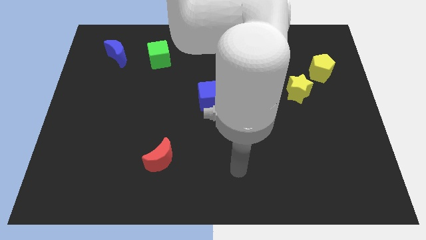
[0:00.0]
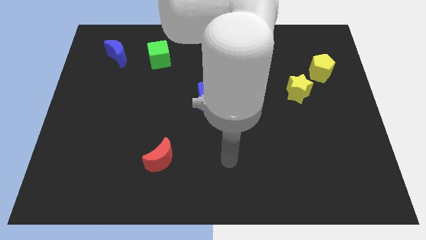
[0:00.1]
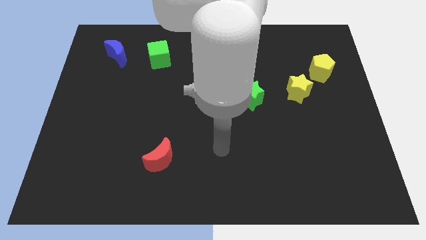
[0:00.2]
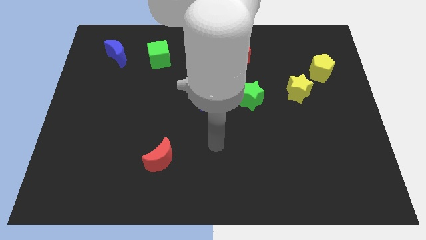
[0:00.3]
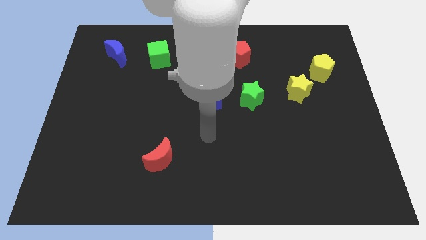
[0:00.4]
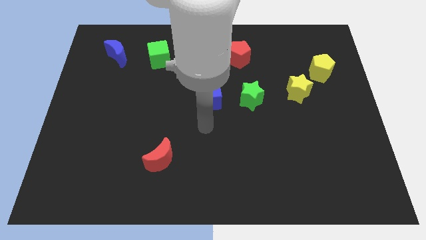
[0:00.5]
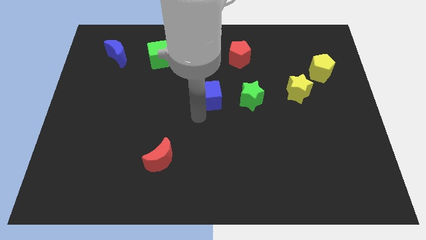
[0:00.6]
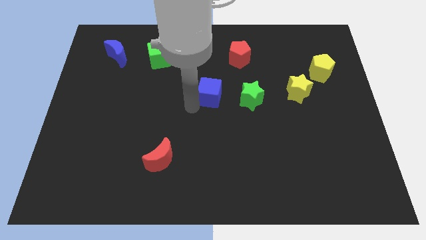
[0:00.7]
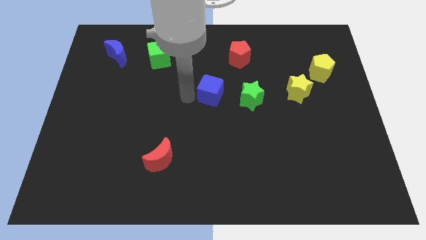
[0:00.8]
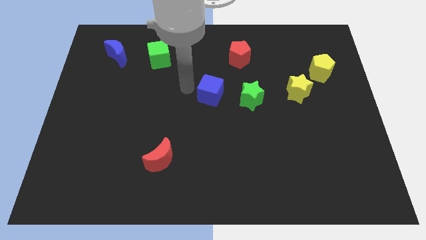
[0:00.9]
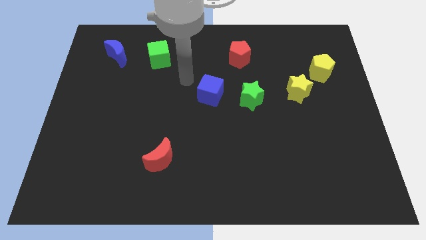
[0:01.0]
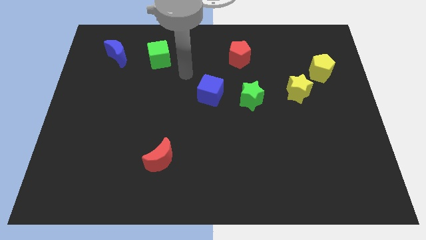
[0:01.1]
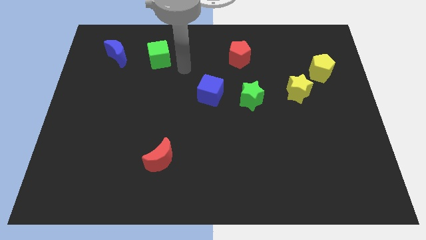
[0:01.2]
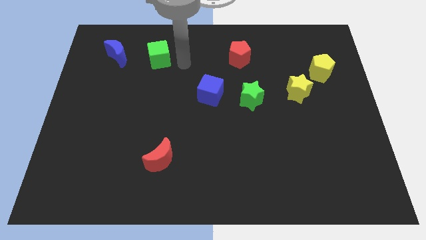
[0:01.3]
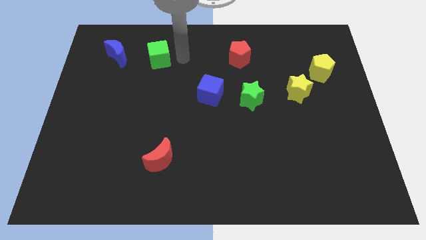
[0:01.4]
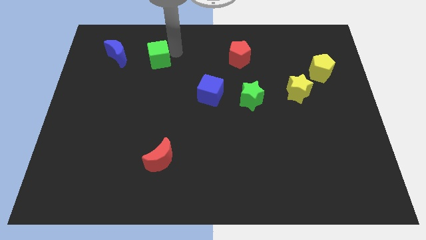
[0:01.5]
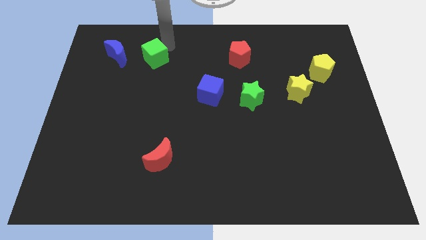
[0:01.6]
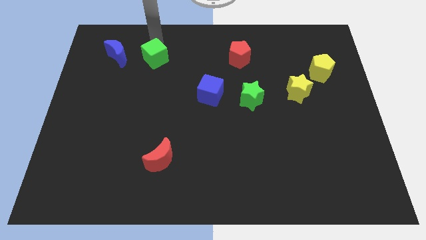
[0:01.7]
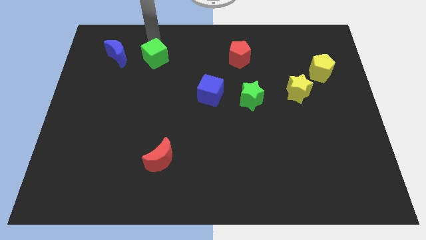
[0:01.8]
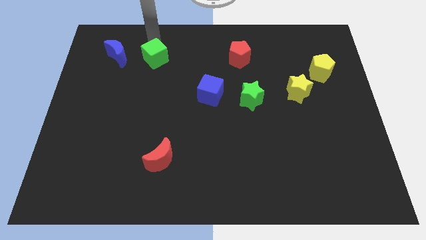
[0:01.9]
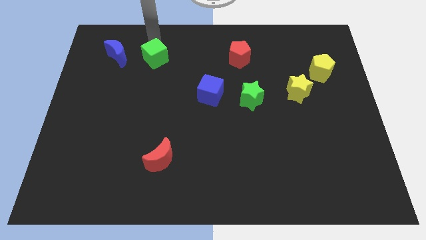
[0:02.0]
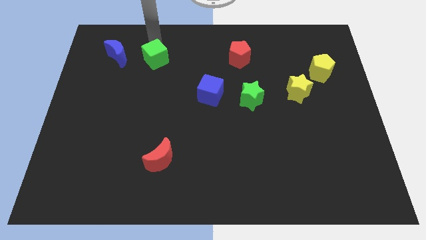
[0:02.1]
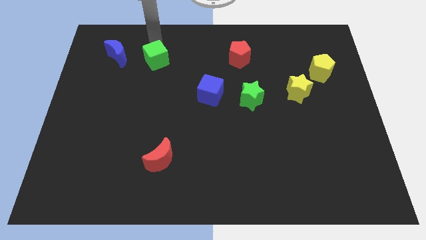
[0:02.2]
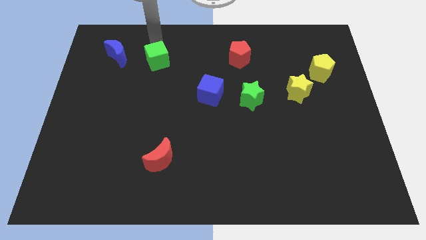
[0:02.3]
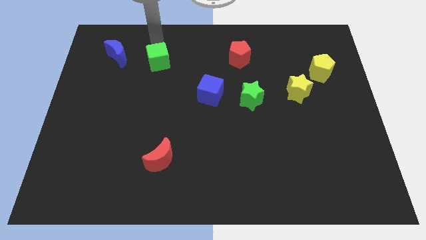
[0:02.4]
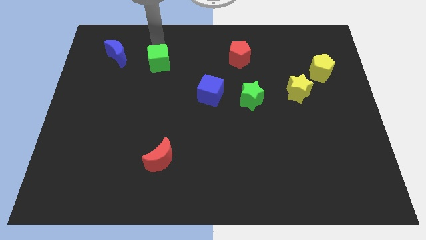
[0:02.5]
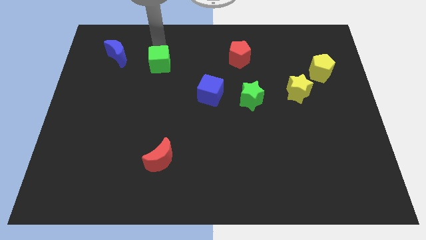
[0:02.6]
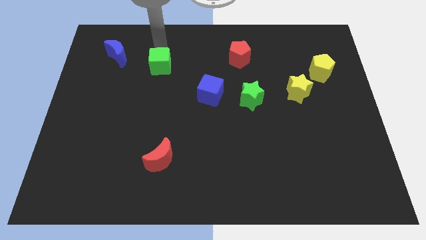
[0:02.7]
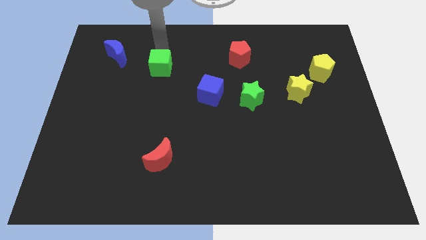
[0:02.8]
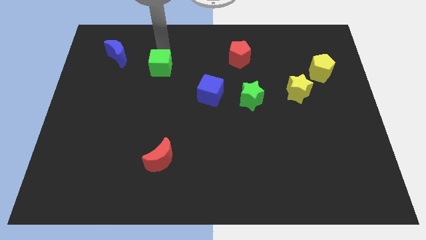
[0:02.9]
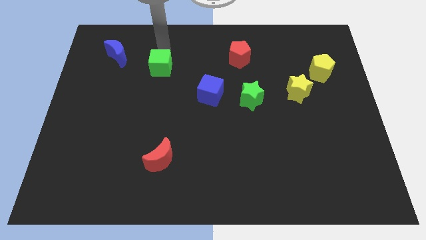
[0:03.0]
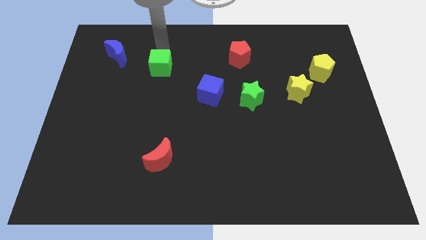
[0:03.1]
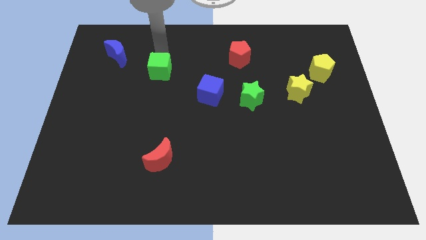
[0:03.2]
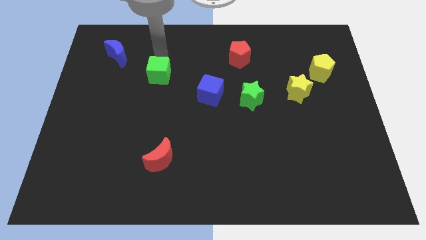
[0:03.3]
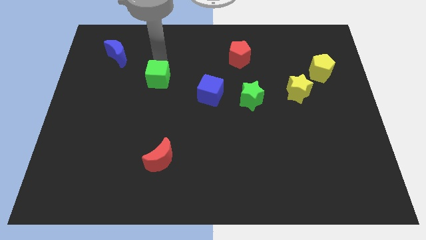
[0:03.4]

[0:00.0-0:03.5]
push the green cube a little bit downwards

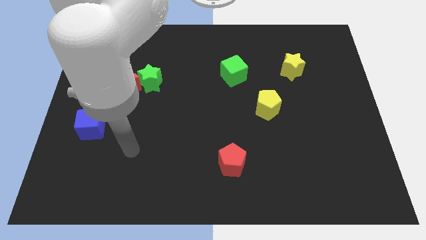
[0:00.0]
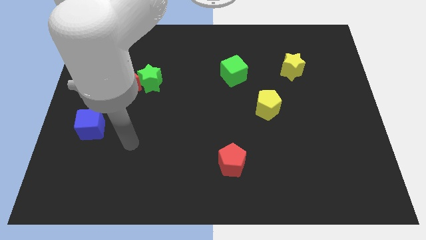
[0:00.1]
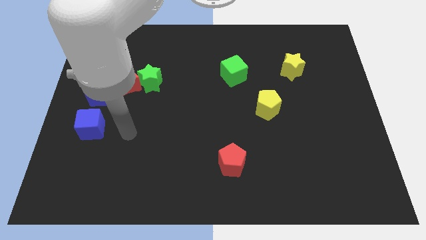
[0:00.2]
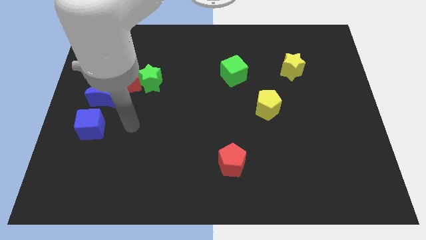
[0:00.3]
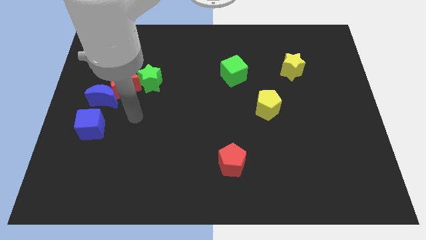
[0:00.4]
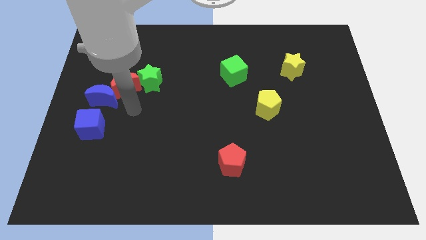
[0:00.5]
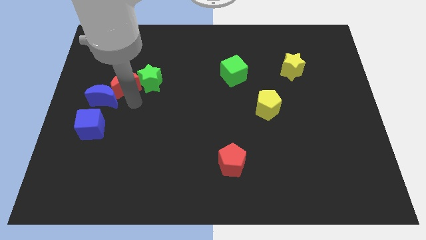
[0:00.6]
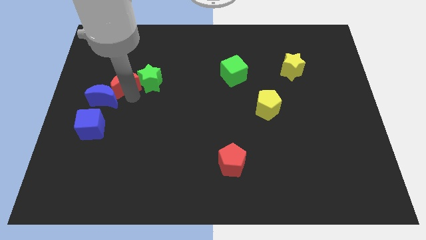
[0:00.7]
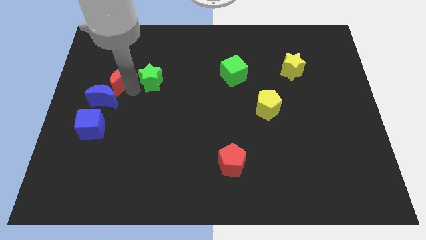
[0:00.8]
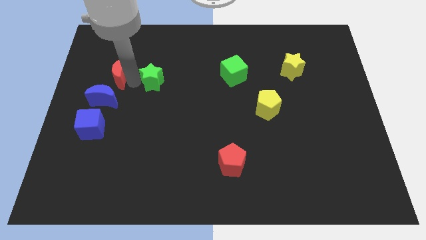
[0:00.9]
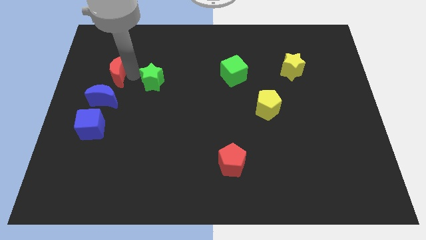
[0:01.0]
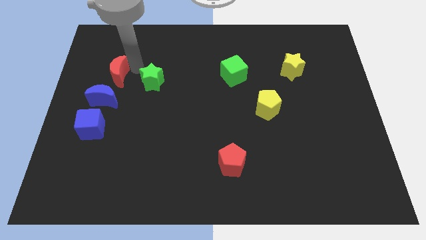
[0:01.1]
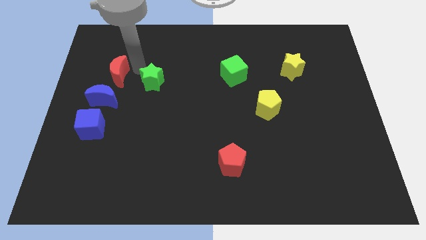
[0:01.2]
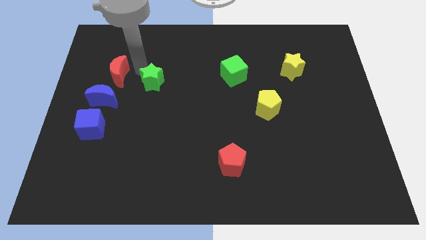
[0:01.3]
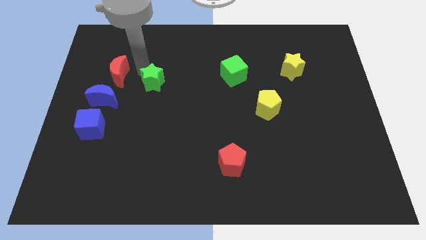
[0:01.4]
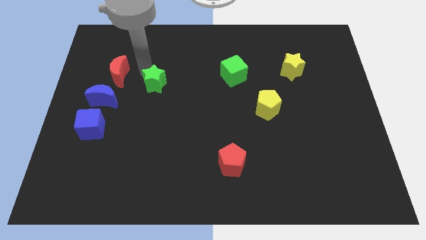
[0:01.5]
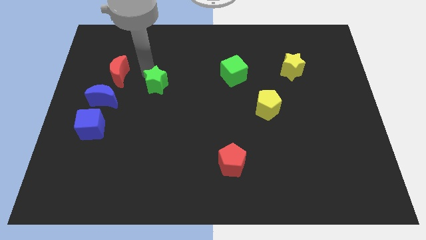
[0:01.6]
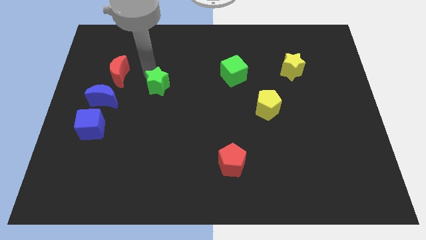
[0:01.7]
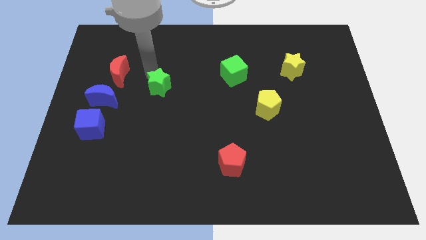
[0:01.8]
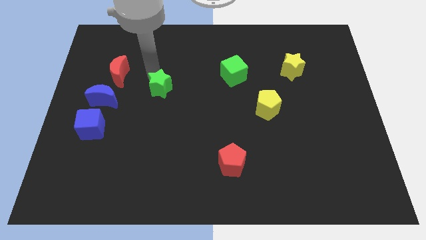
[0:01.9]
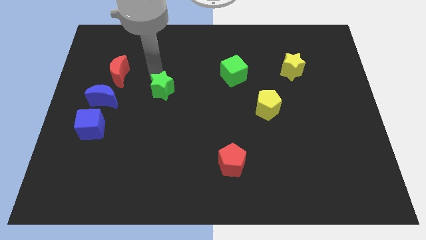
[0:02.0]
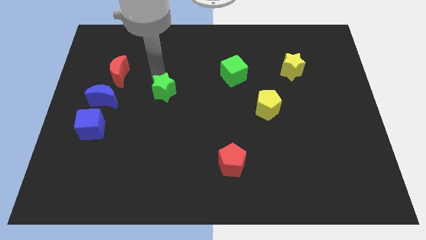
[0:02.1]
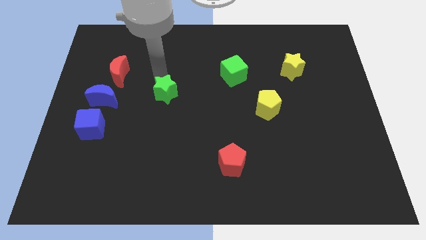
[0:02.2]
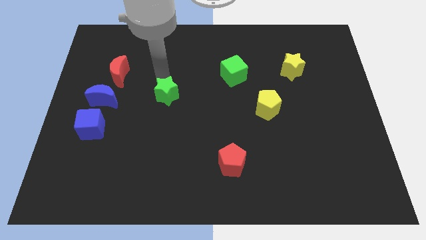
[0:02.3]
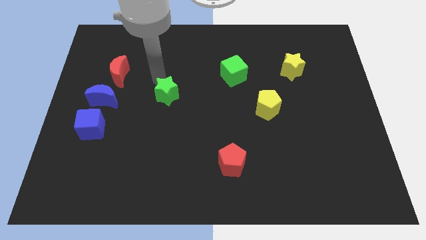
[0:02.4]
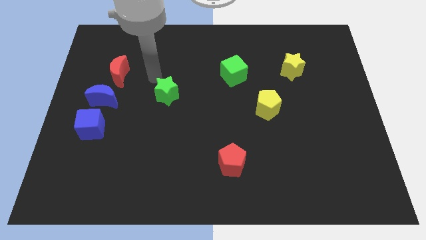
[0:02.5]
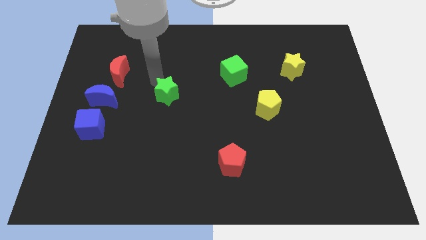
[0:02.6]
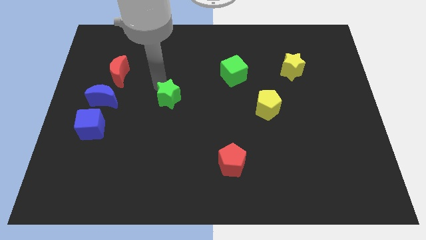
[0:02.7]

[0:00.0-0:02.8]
slightly slide the green star downwards and to the right

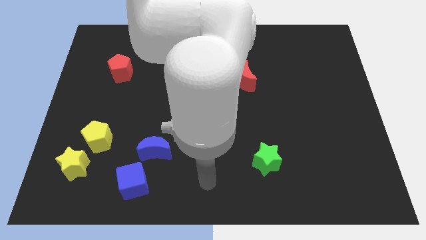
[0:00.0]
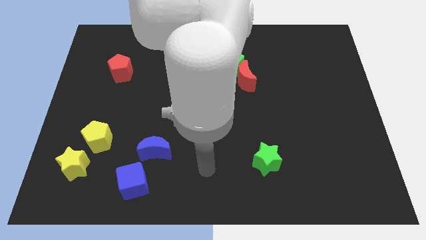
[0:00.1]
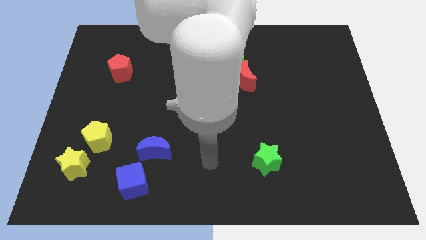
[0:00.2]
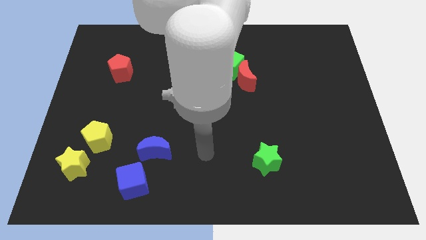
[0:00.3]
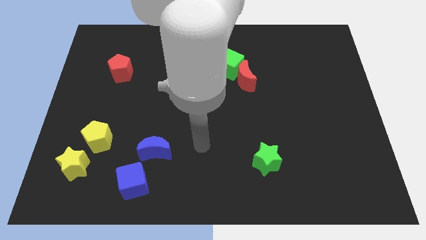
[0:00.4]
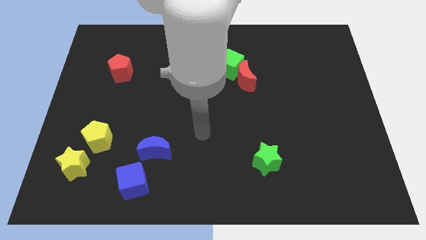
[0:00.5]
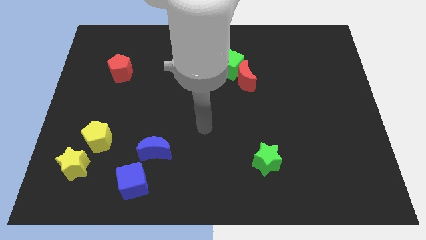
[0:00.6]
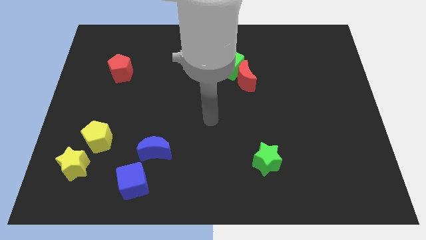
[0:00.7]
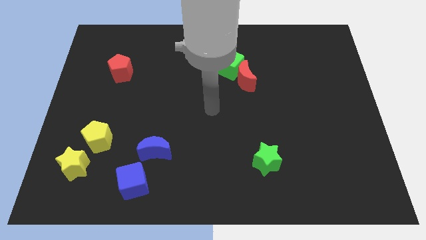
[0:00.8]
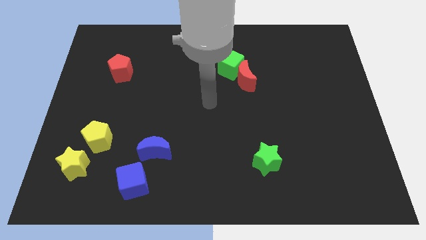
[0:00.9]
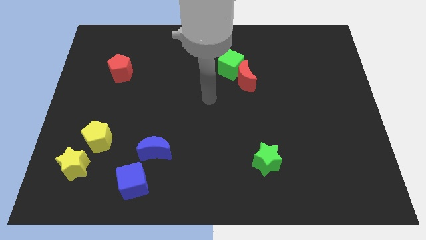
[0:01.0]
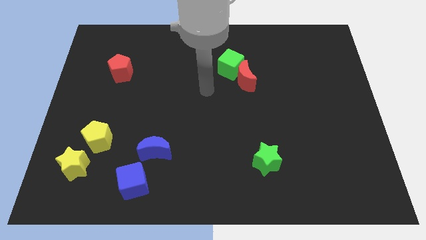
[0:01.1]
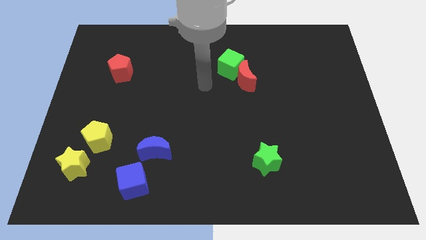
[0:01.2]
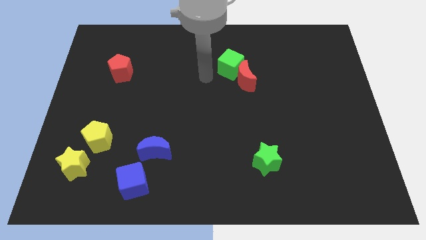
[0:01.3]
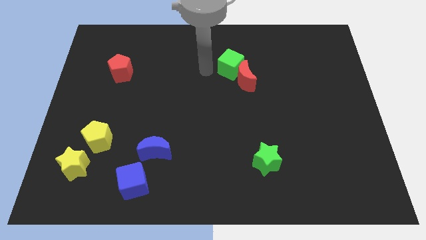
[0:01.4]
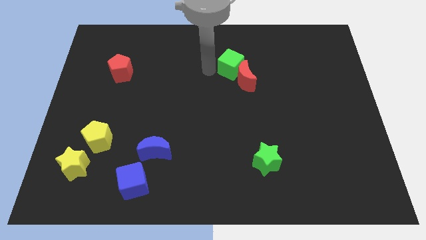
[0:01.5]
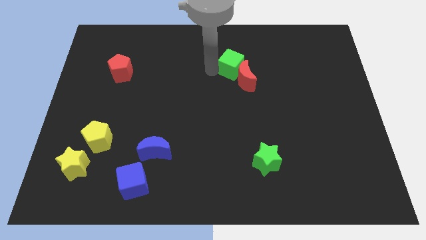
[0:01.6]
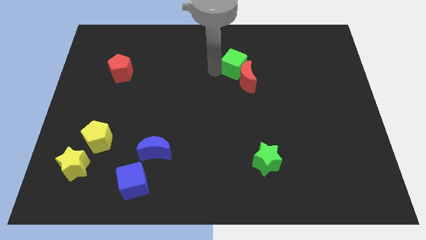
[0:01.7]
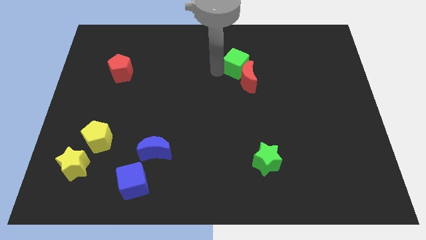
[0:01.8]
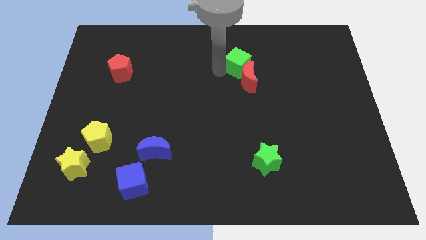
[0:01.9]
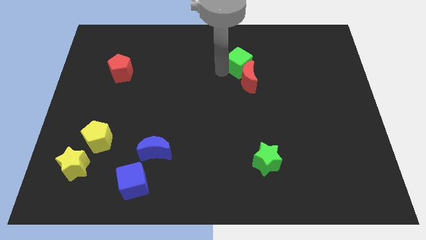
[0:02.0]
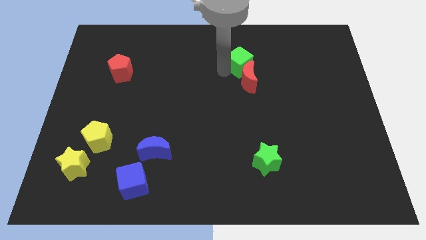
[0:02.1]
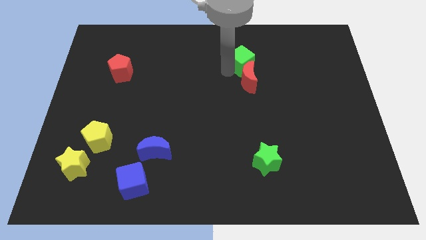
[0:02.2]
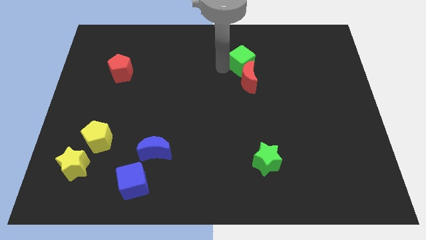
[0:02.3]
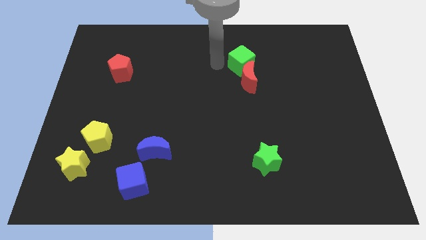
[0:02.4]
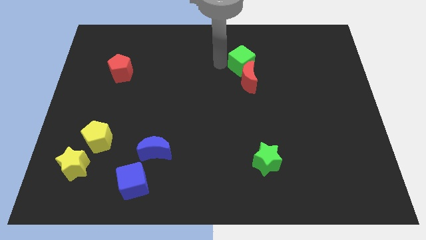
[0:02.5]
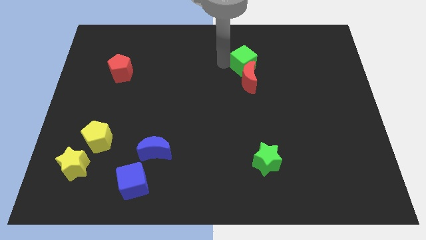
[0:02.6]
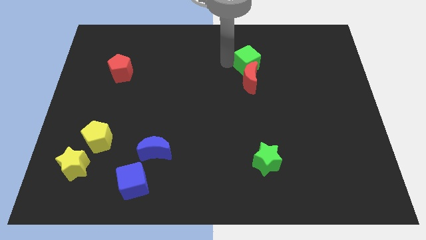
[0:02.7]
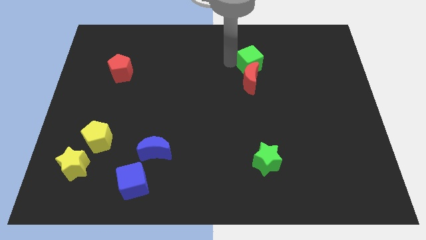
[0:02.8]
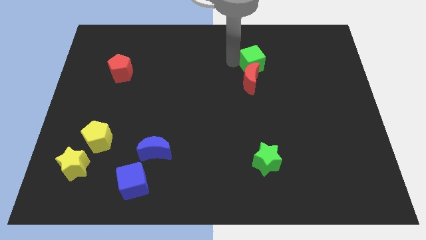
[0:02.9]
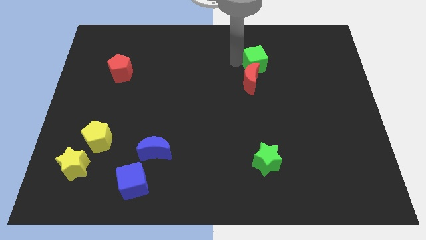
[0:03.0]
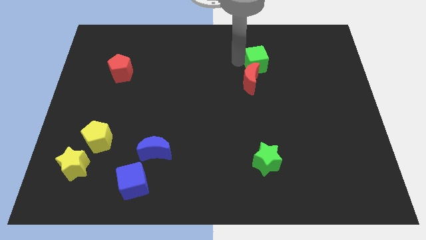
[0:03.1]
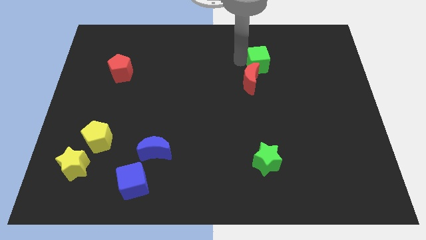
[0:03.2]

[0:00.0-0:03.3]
slightly slide the green cube right
